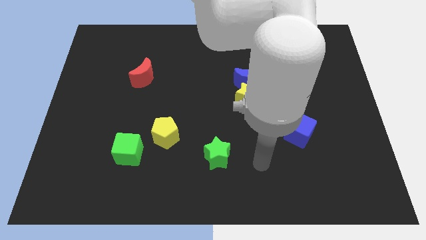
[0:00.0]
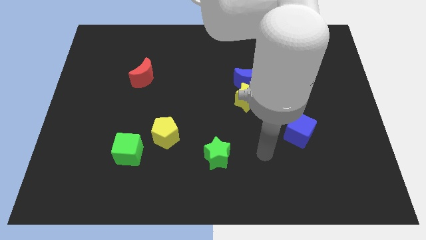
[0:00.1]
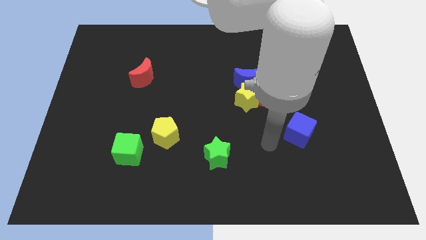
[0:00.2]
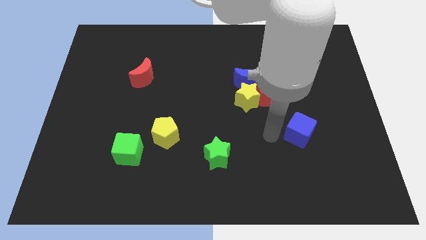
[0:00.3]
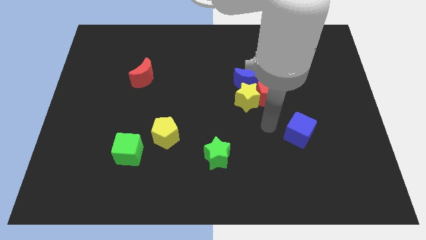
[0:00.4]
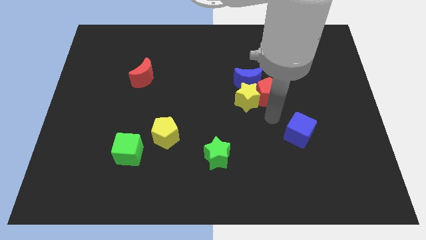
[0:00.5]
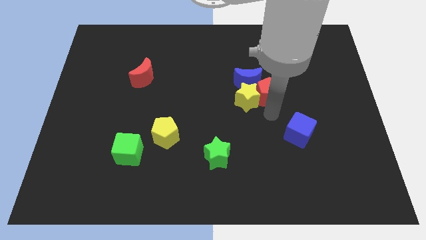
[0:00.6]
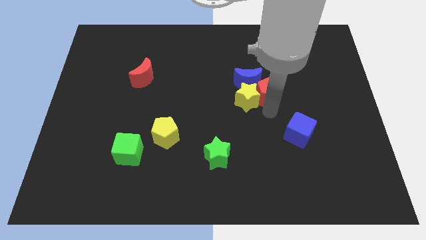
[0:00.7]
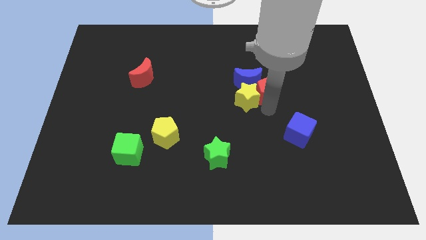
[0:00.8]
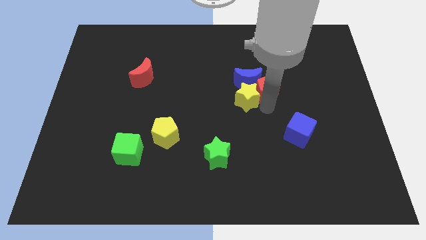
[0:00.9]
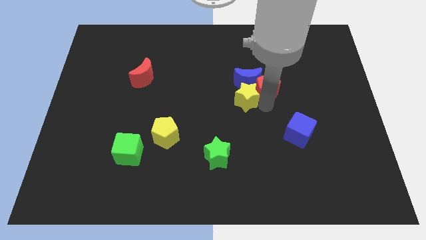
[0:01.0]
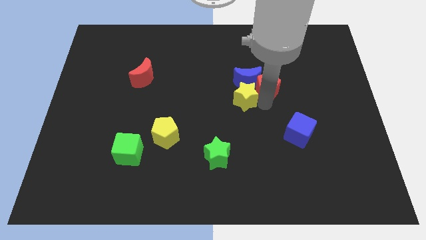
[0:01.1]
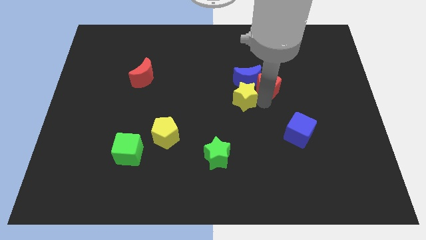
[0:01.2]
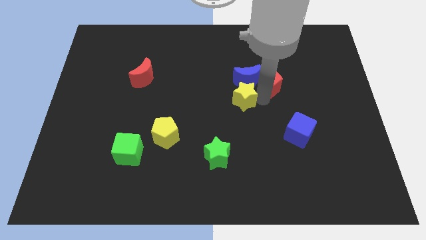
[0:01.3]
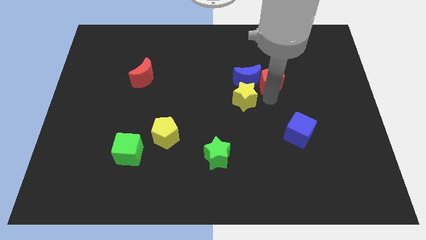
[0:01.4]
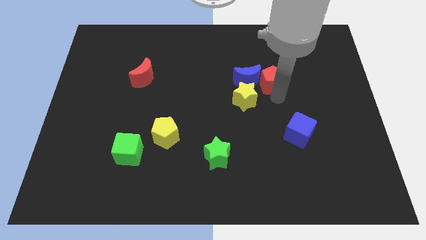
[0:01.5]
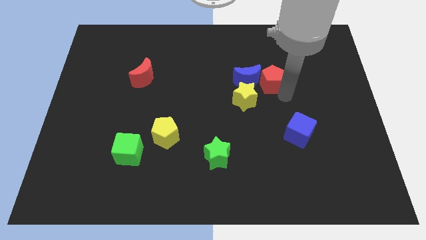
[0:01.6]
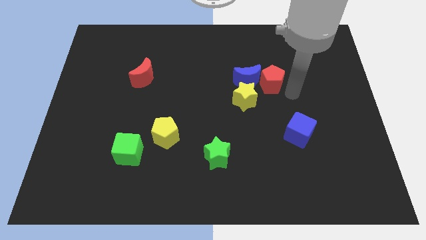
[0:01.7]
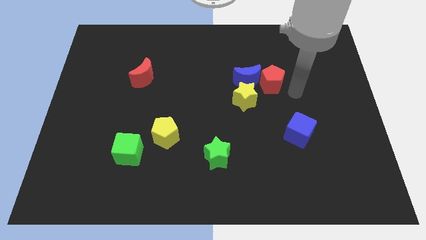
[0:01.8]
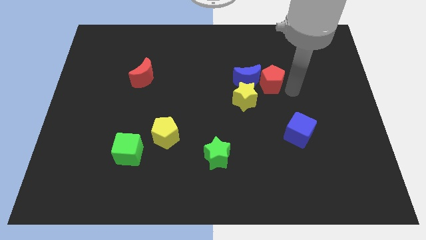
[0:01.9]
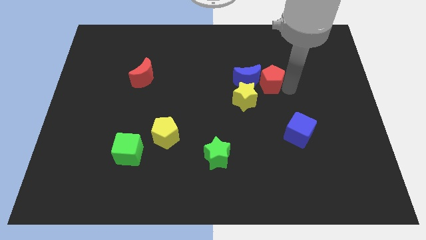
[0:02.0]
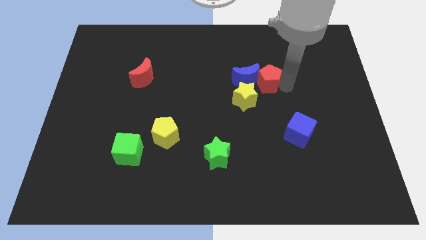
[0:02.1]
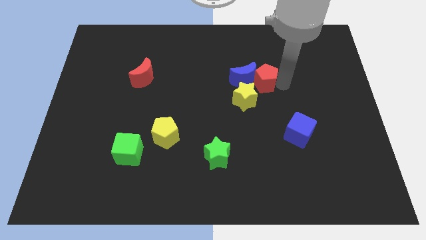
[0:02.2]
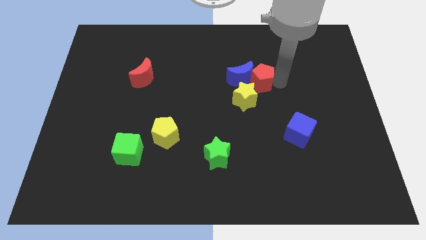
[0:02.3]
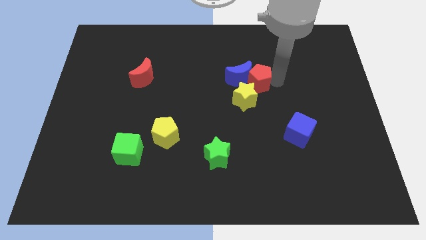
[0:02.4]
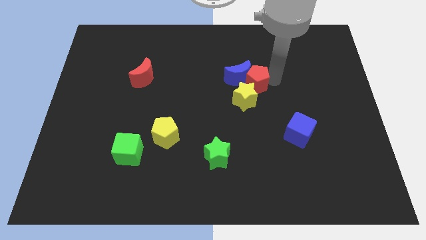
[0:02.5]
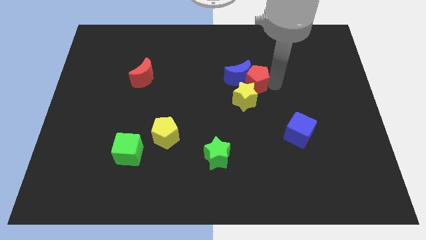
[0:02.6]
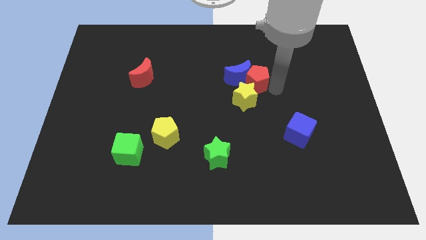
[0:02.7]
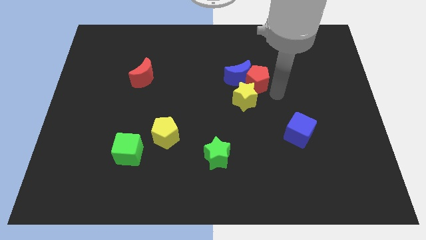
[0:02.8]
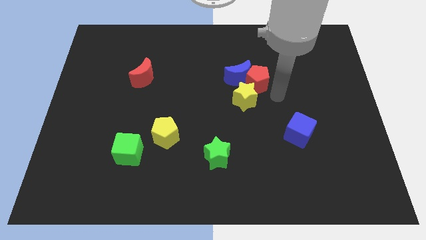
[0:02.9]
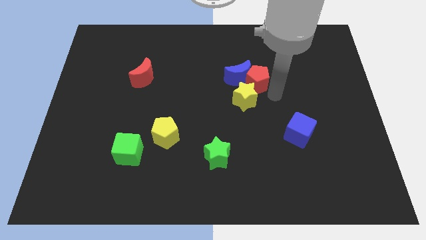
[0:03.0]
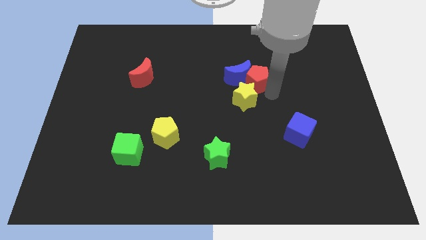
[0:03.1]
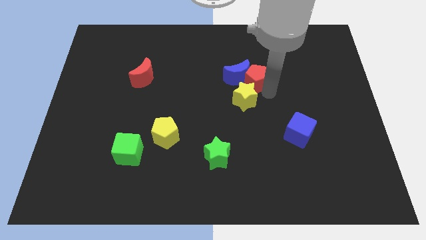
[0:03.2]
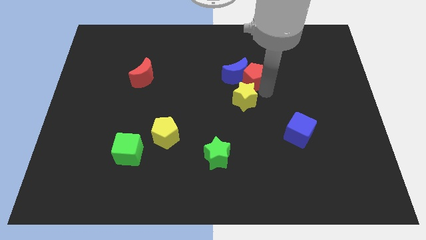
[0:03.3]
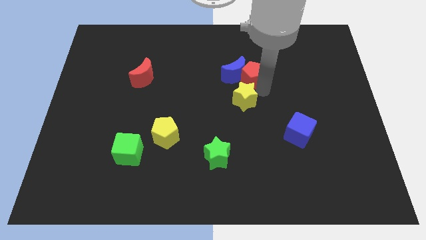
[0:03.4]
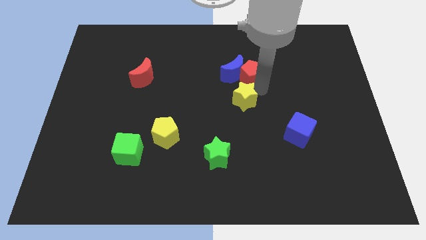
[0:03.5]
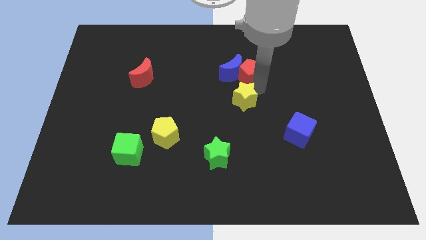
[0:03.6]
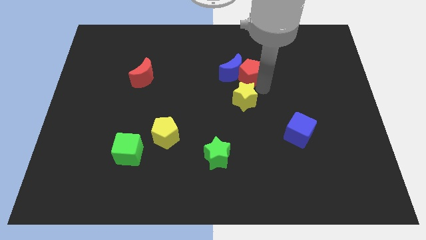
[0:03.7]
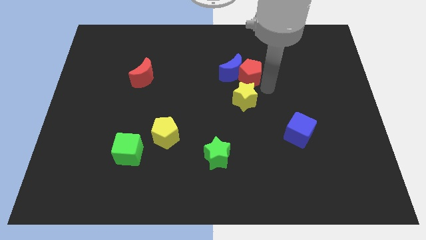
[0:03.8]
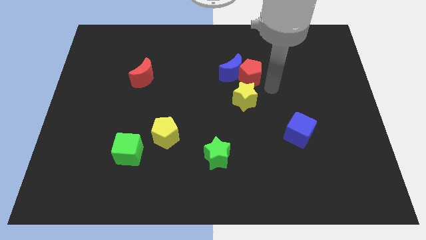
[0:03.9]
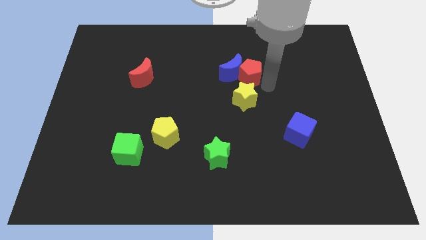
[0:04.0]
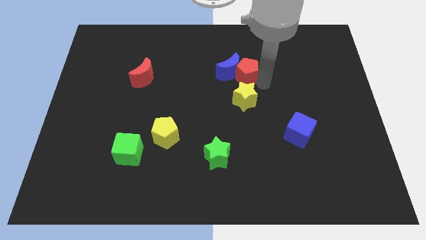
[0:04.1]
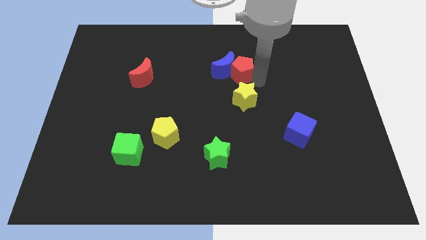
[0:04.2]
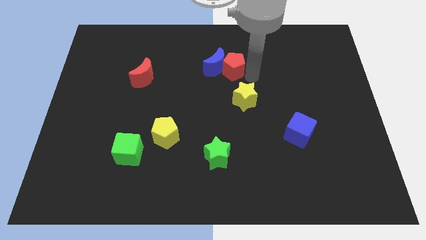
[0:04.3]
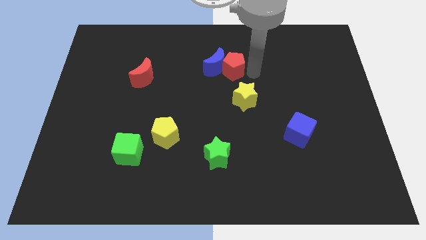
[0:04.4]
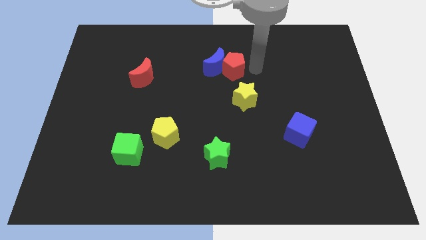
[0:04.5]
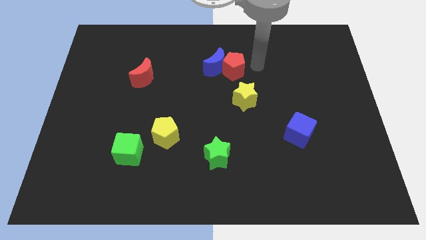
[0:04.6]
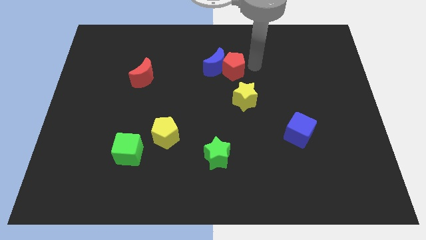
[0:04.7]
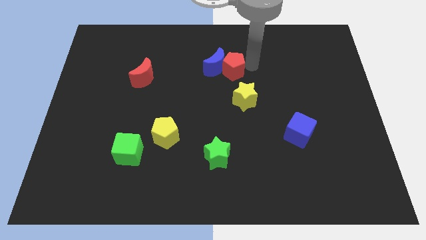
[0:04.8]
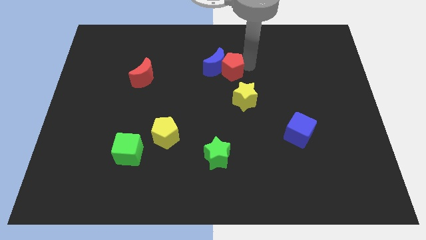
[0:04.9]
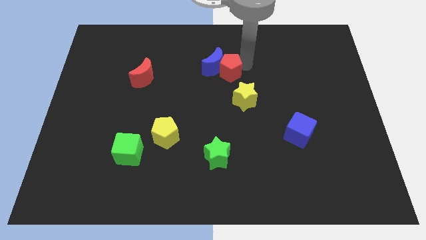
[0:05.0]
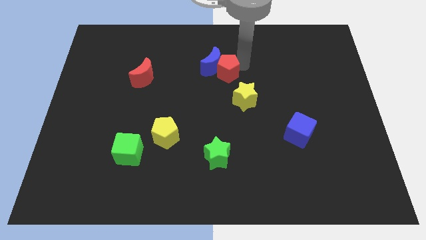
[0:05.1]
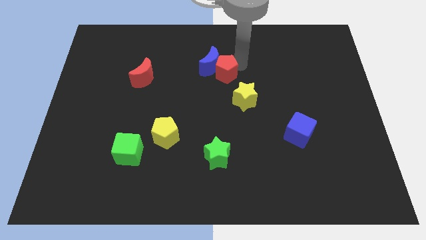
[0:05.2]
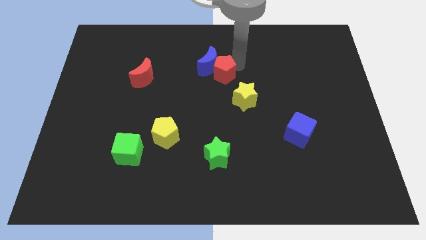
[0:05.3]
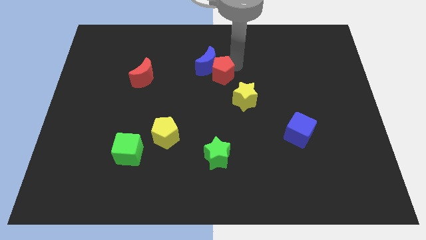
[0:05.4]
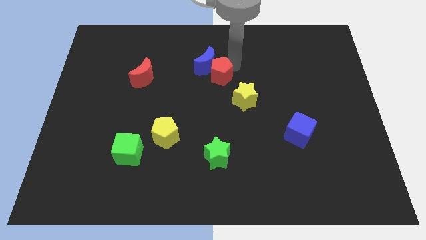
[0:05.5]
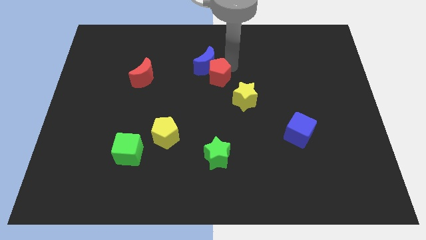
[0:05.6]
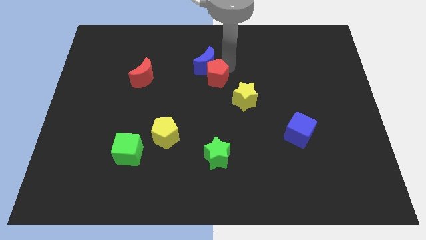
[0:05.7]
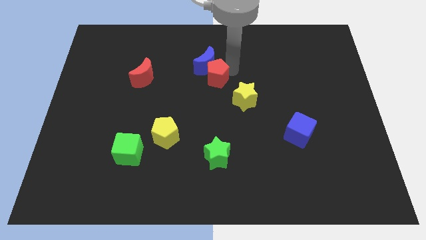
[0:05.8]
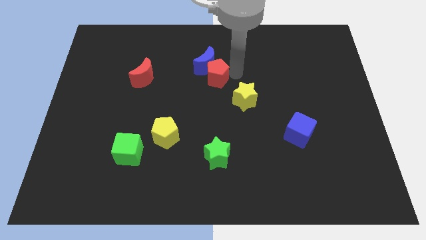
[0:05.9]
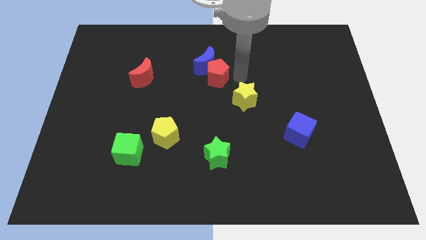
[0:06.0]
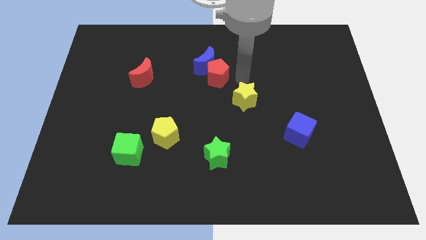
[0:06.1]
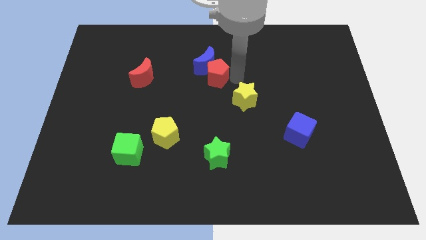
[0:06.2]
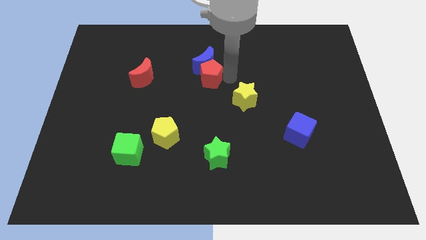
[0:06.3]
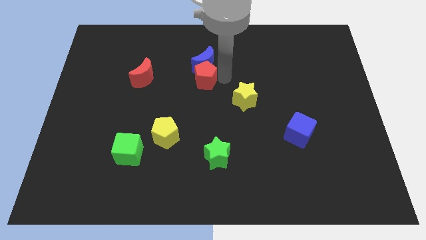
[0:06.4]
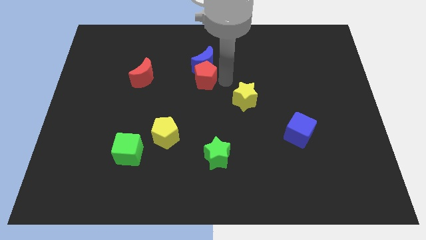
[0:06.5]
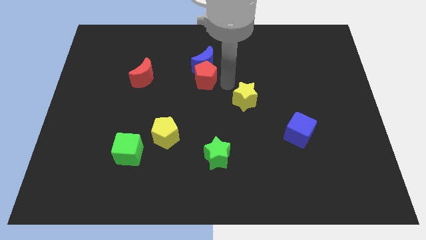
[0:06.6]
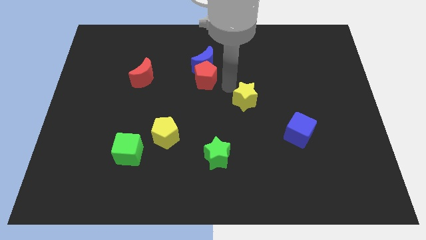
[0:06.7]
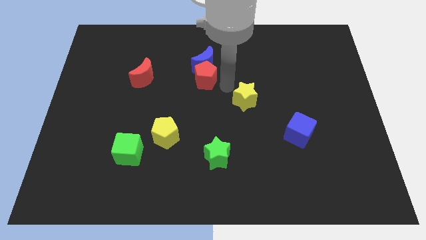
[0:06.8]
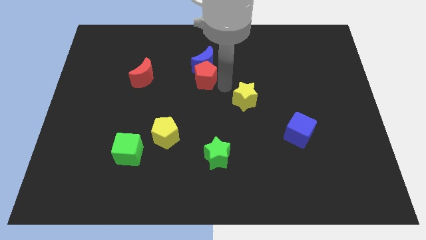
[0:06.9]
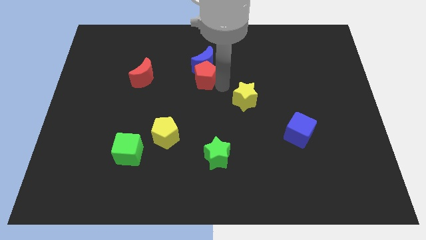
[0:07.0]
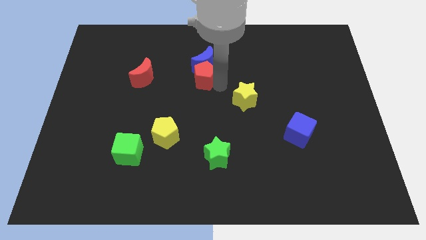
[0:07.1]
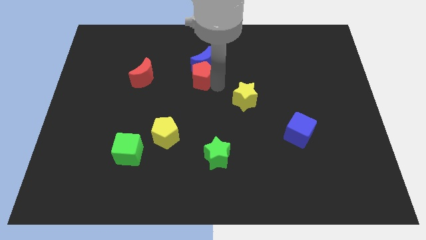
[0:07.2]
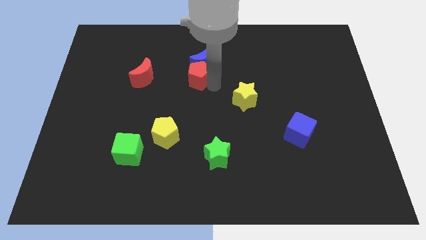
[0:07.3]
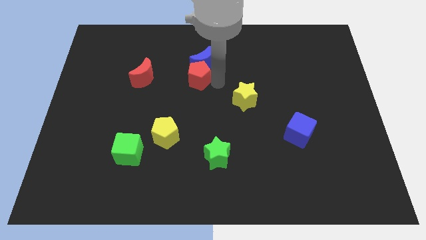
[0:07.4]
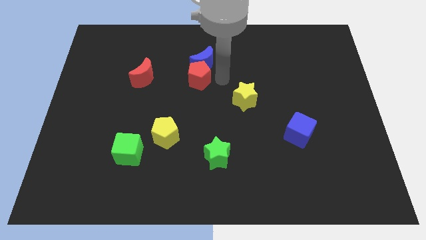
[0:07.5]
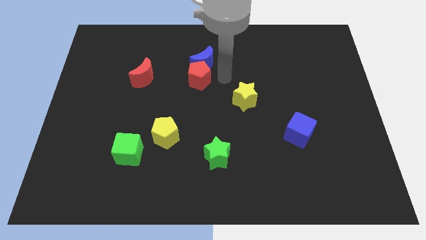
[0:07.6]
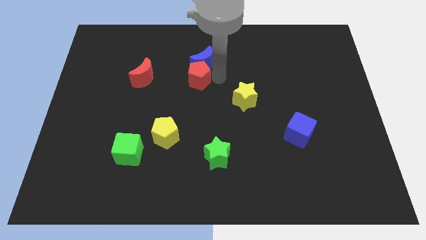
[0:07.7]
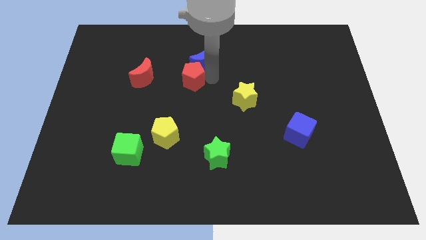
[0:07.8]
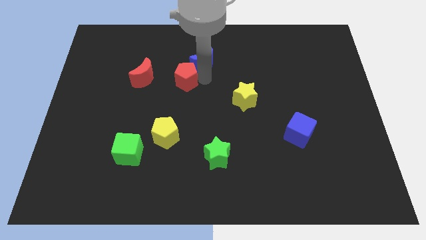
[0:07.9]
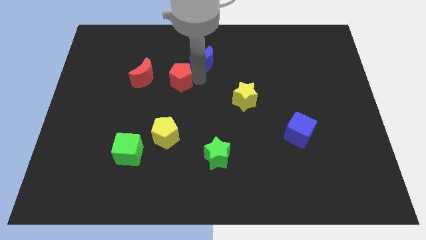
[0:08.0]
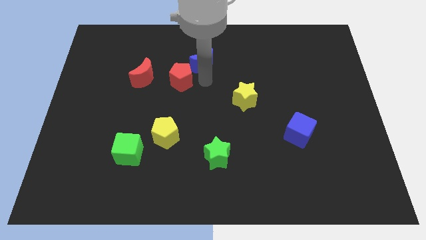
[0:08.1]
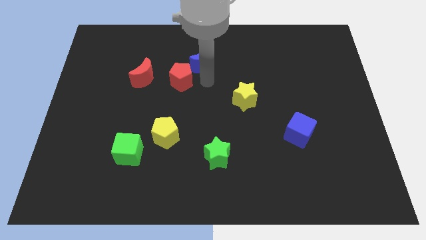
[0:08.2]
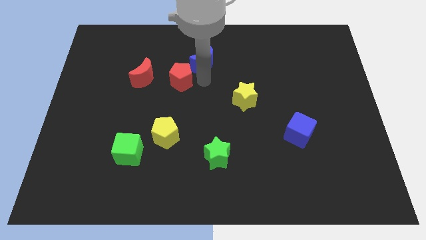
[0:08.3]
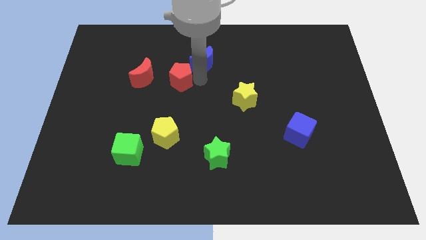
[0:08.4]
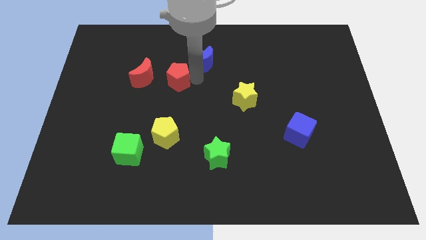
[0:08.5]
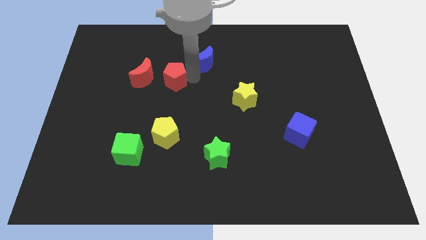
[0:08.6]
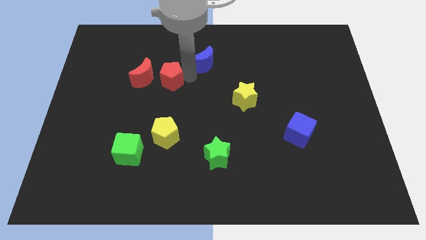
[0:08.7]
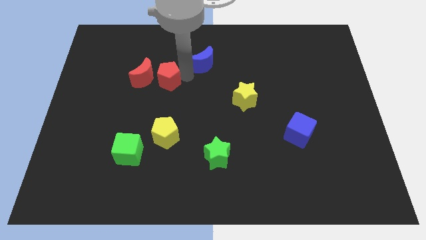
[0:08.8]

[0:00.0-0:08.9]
put the red pentagon close to the red moon
